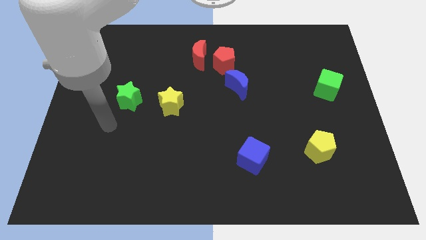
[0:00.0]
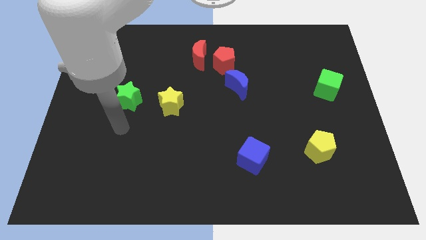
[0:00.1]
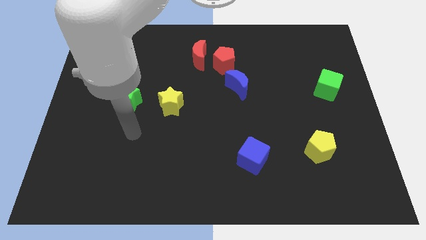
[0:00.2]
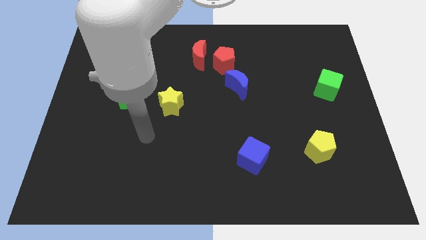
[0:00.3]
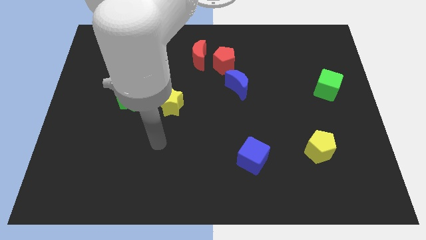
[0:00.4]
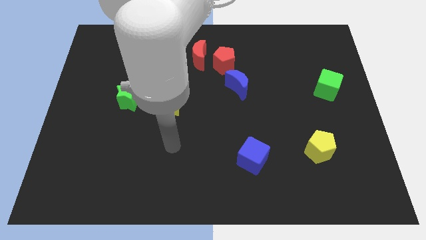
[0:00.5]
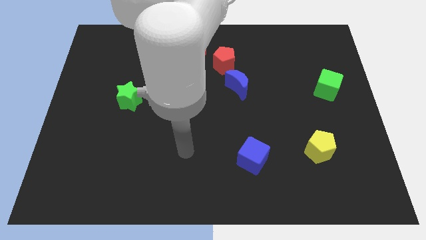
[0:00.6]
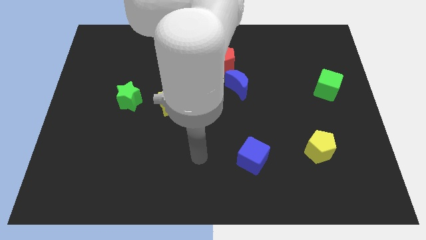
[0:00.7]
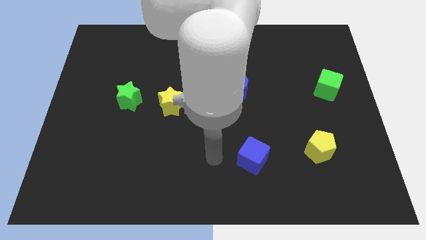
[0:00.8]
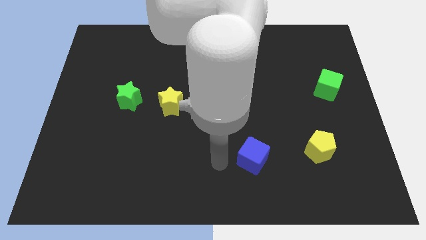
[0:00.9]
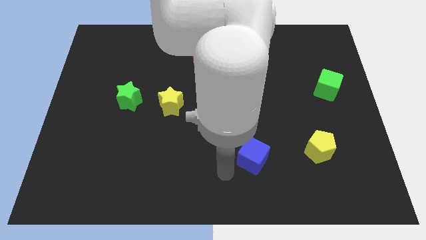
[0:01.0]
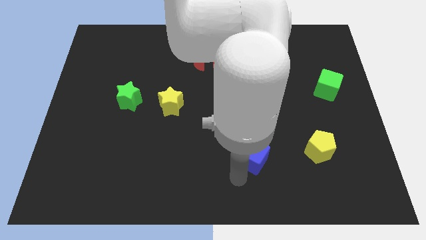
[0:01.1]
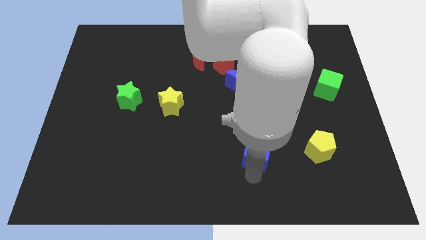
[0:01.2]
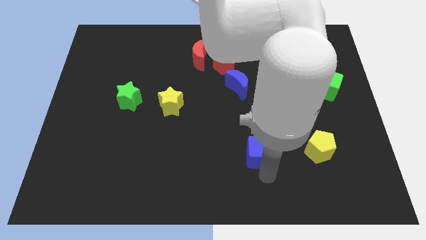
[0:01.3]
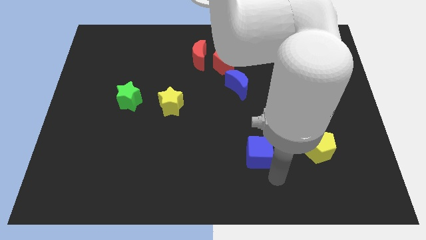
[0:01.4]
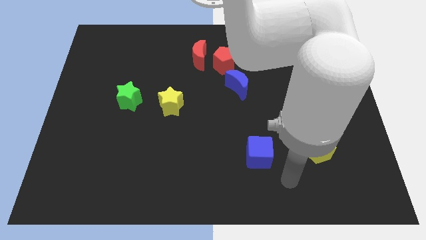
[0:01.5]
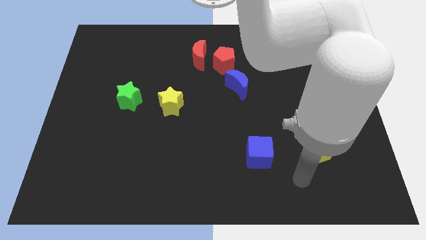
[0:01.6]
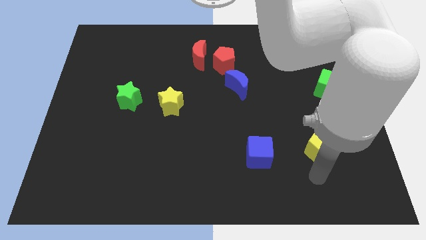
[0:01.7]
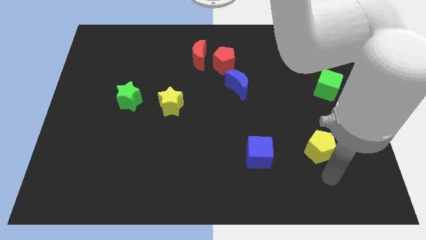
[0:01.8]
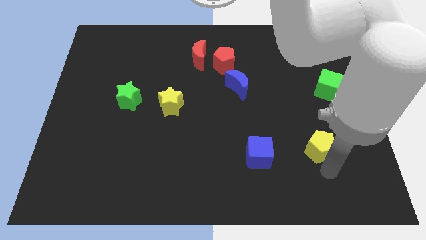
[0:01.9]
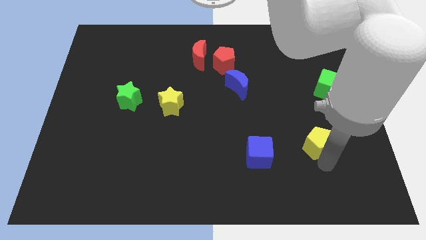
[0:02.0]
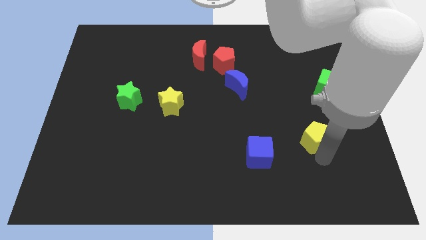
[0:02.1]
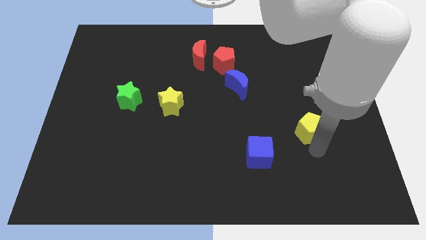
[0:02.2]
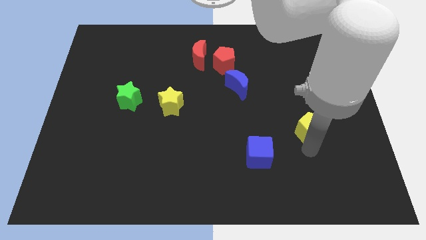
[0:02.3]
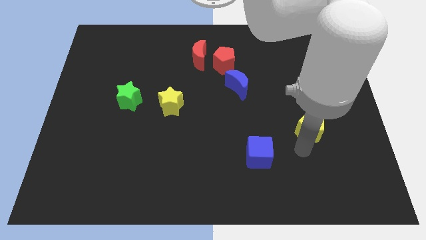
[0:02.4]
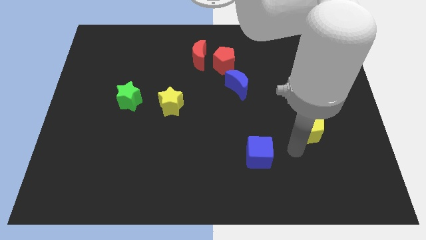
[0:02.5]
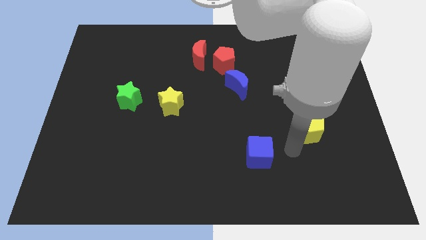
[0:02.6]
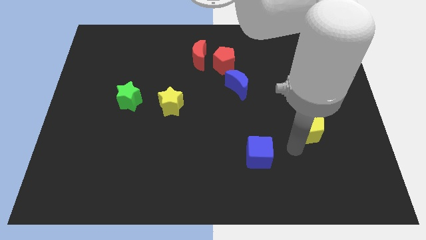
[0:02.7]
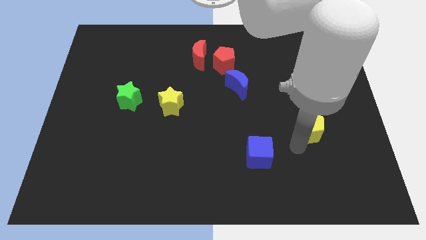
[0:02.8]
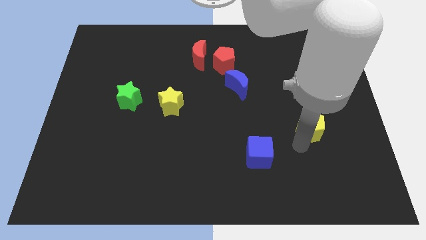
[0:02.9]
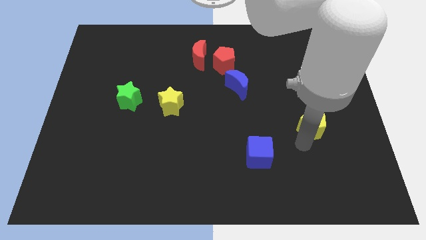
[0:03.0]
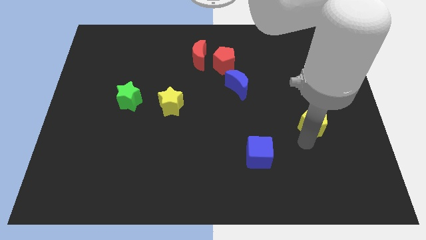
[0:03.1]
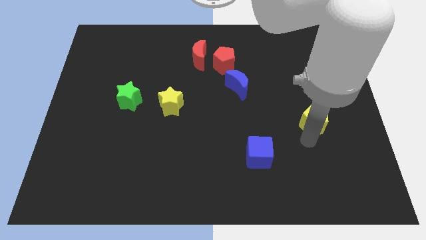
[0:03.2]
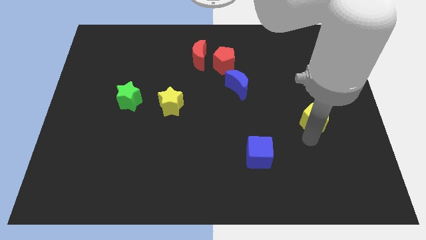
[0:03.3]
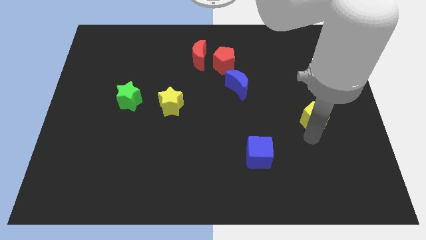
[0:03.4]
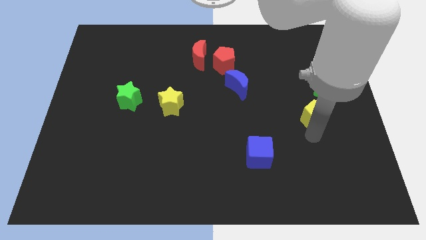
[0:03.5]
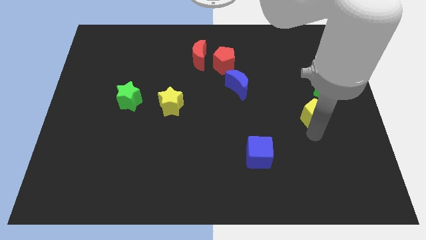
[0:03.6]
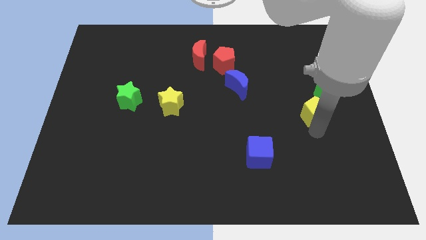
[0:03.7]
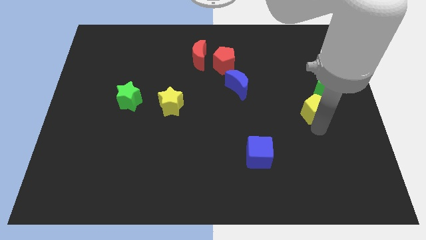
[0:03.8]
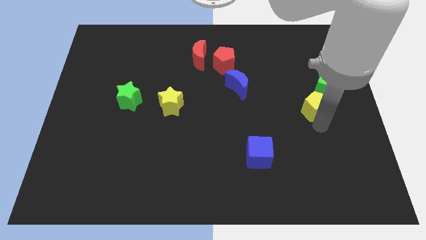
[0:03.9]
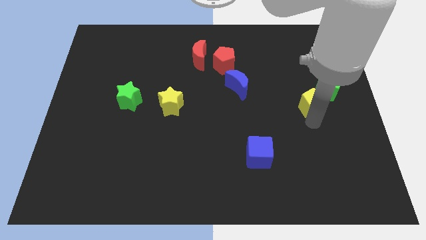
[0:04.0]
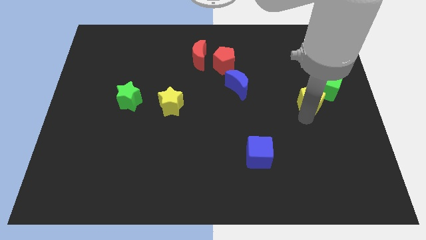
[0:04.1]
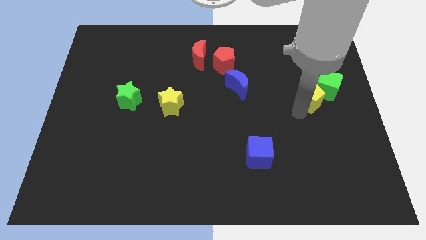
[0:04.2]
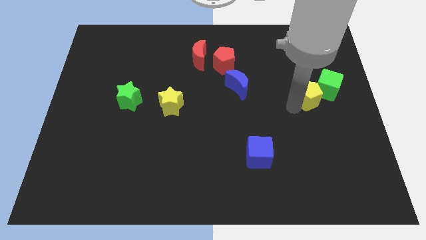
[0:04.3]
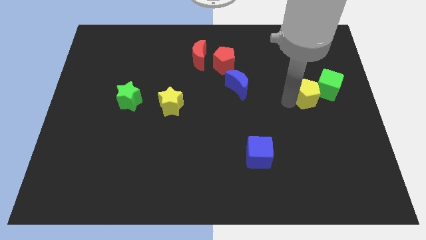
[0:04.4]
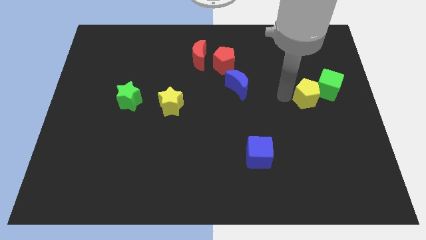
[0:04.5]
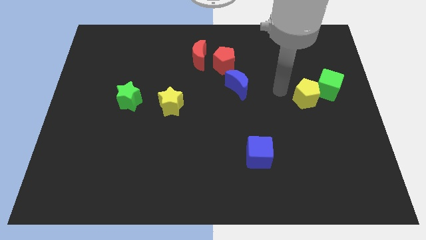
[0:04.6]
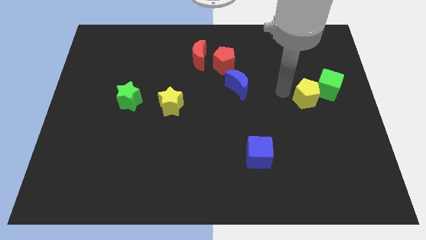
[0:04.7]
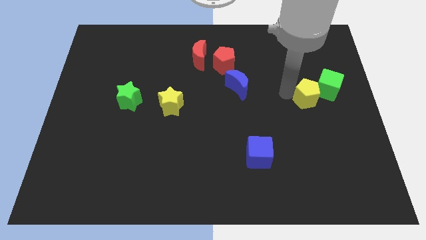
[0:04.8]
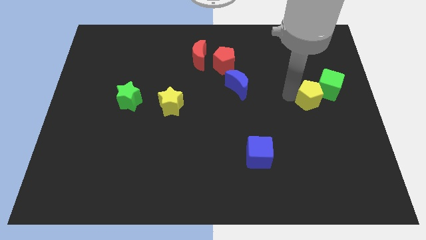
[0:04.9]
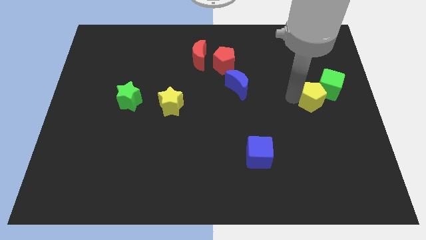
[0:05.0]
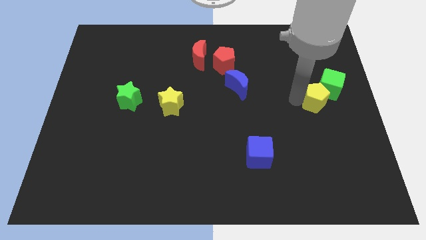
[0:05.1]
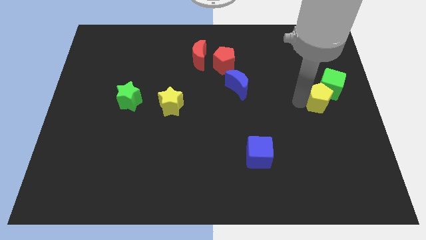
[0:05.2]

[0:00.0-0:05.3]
push the yellow pentagon to the right side of the board

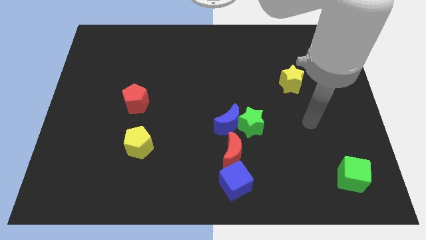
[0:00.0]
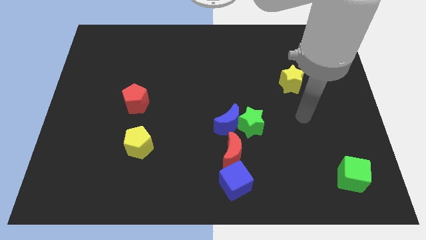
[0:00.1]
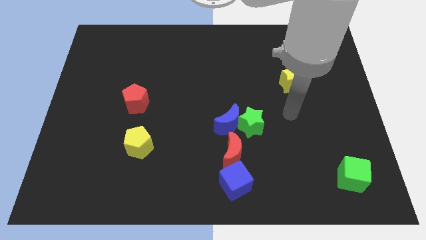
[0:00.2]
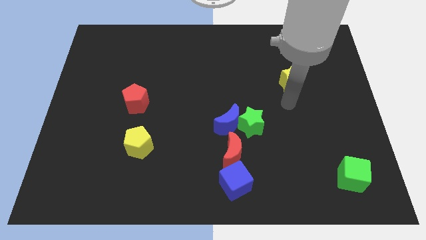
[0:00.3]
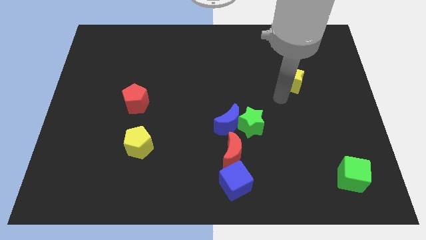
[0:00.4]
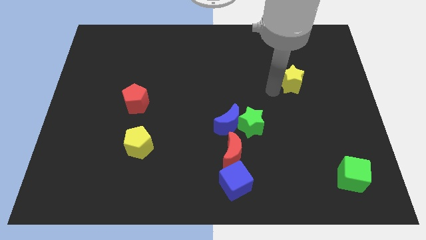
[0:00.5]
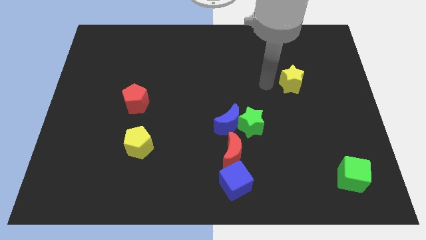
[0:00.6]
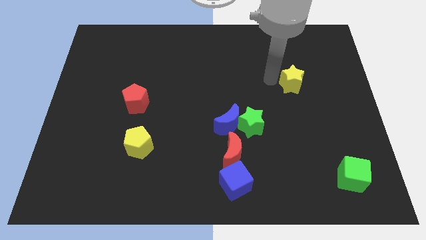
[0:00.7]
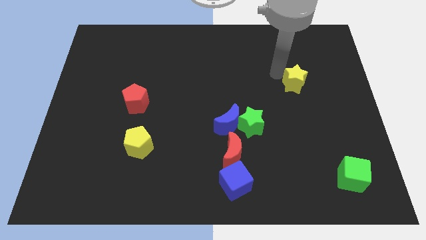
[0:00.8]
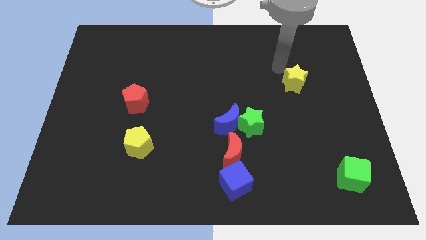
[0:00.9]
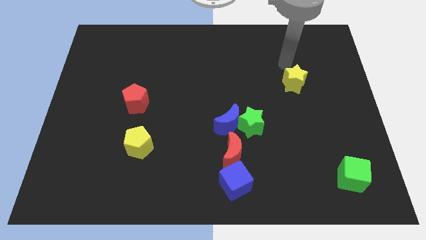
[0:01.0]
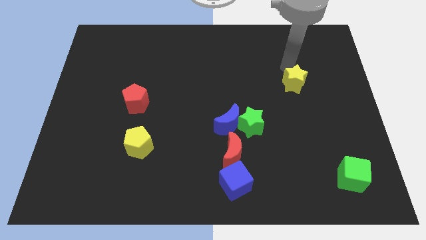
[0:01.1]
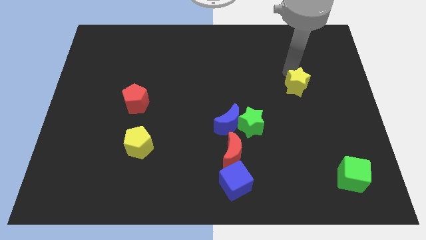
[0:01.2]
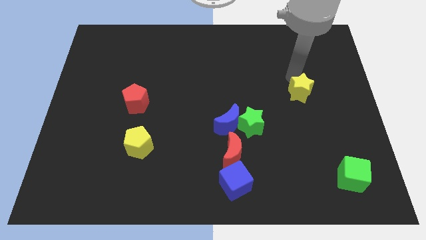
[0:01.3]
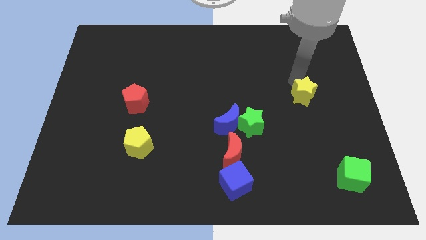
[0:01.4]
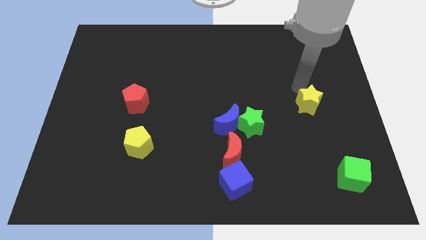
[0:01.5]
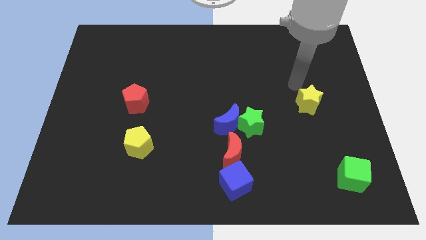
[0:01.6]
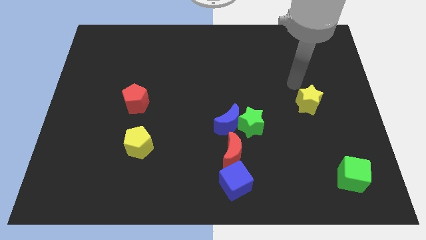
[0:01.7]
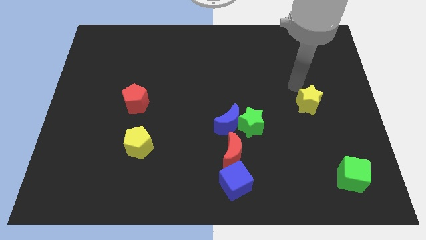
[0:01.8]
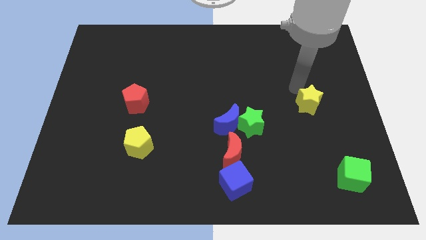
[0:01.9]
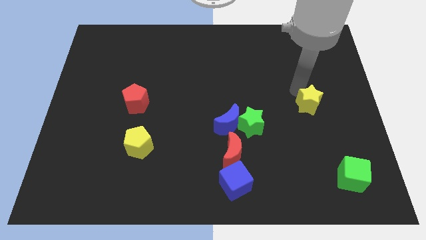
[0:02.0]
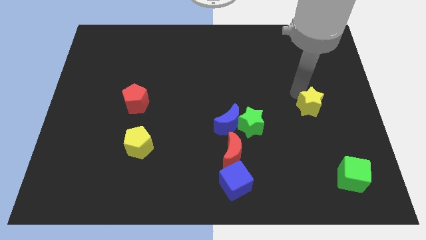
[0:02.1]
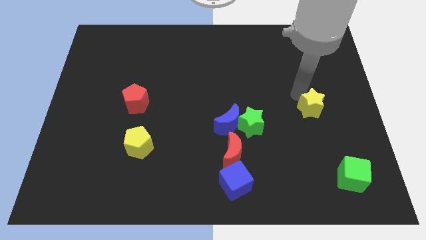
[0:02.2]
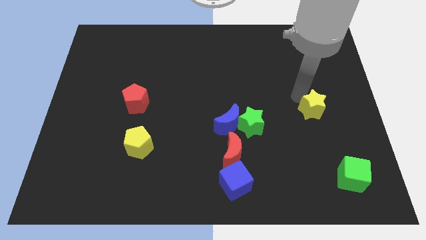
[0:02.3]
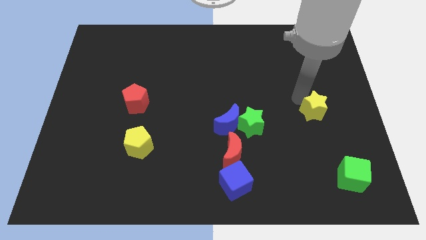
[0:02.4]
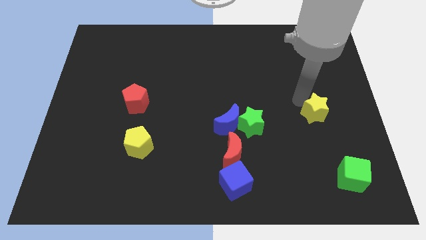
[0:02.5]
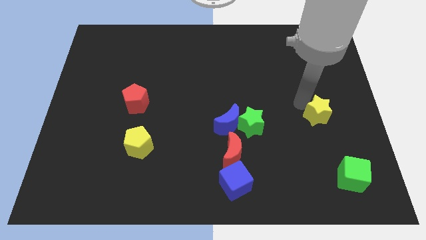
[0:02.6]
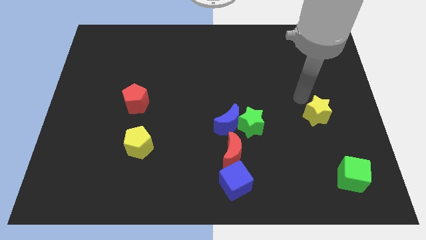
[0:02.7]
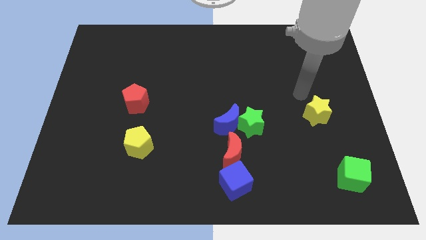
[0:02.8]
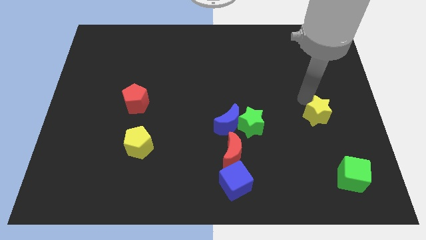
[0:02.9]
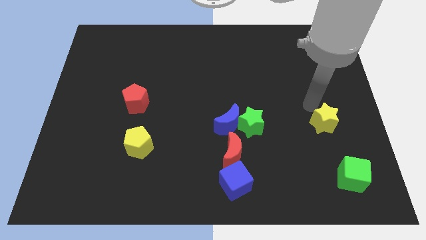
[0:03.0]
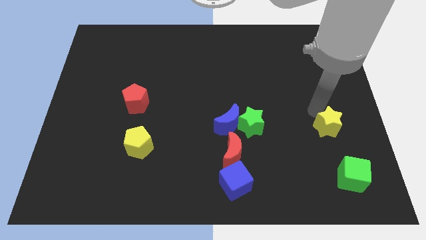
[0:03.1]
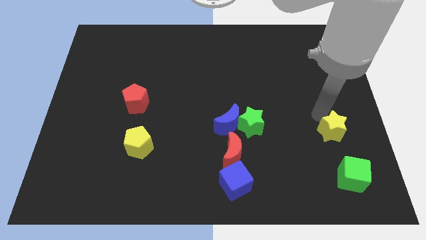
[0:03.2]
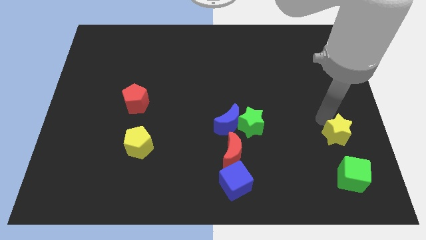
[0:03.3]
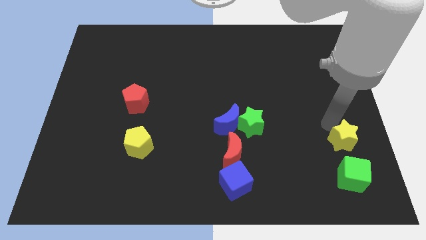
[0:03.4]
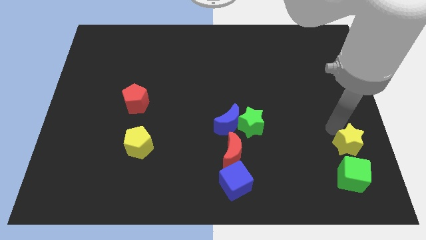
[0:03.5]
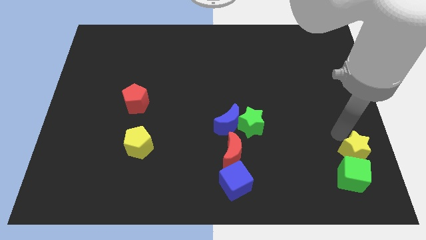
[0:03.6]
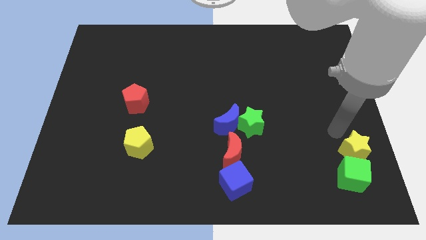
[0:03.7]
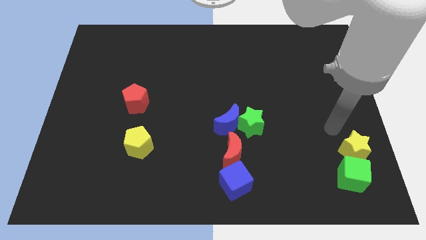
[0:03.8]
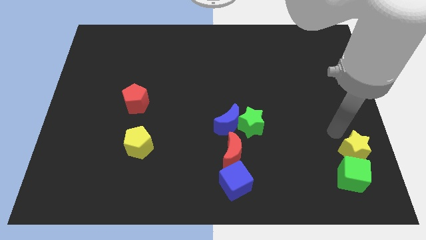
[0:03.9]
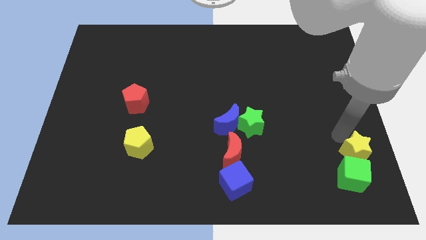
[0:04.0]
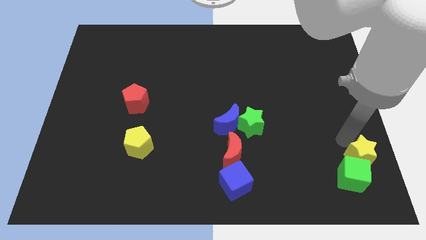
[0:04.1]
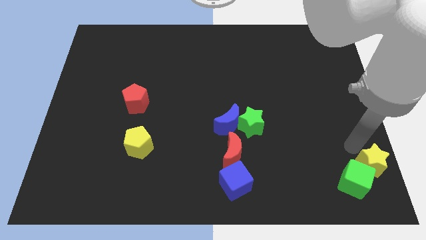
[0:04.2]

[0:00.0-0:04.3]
push the yellow star to the lower right corner
